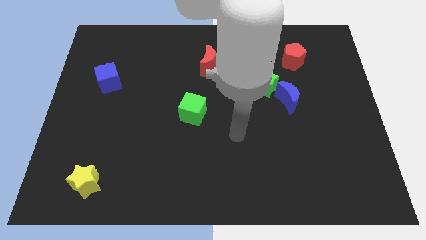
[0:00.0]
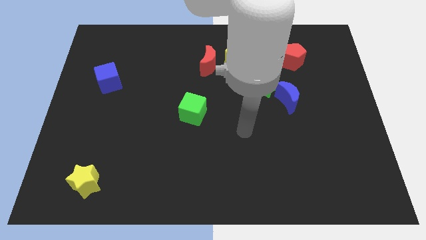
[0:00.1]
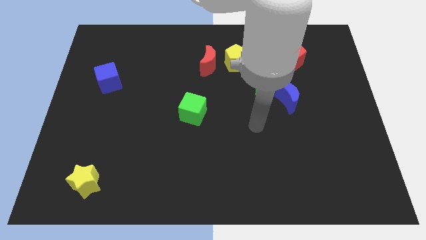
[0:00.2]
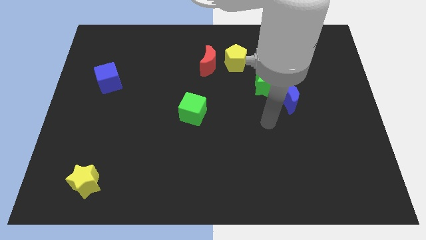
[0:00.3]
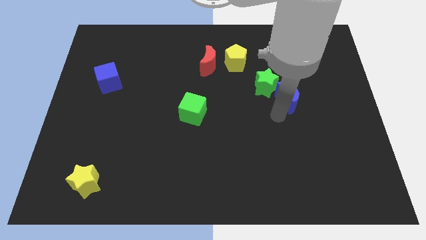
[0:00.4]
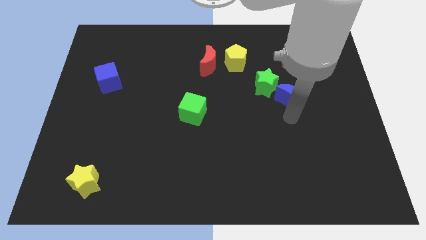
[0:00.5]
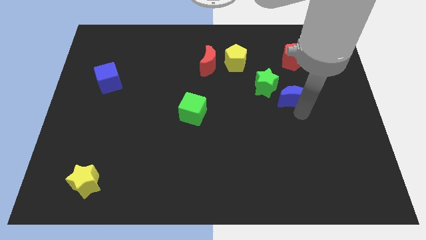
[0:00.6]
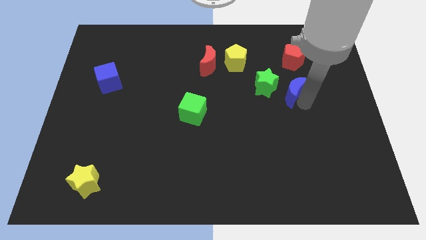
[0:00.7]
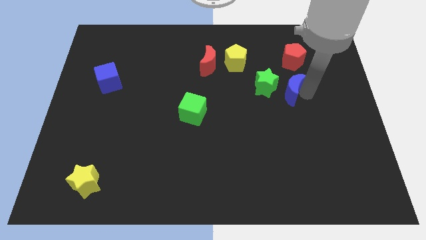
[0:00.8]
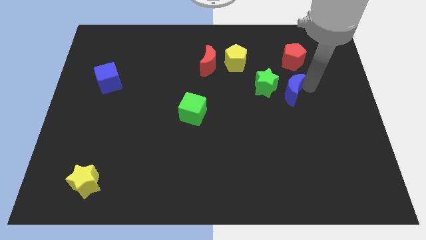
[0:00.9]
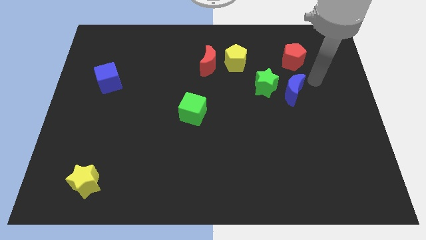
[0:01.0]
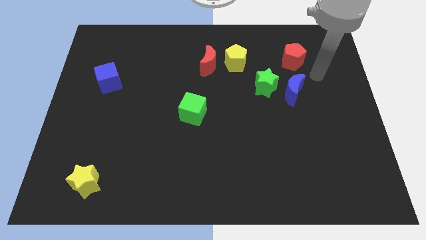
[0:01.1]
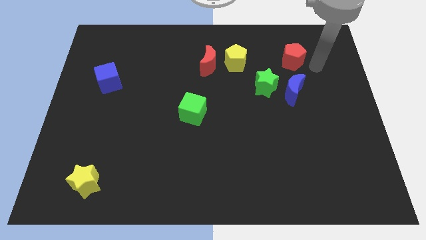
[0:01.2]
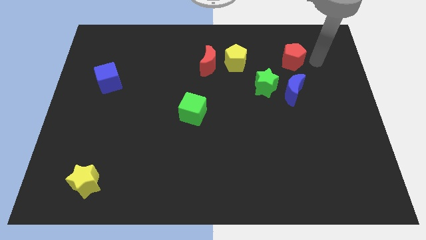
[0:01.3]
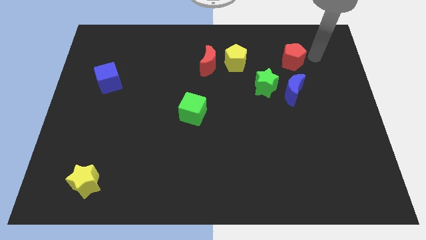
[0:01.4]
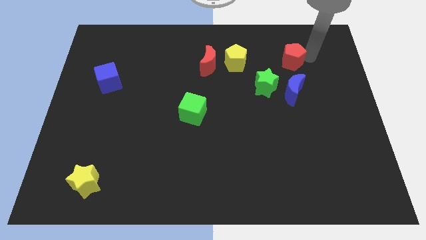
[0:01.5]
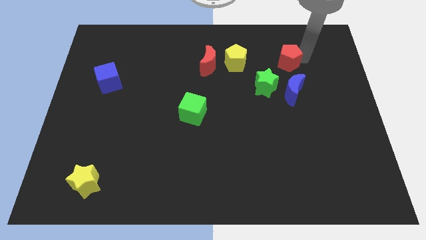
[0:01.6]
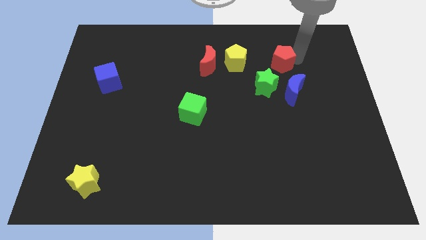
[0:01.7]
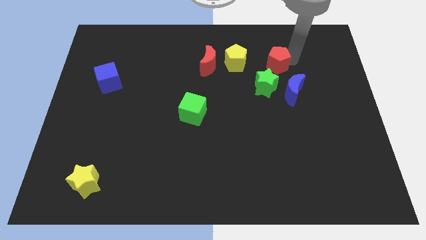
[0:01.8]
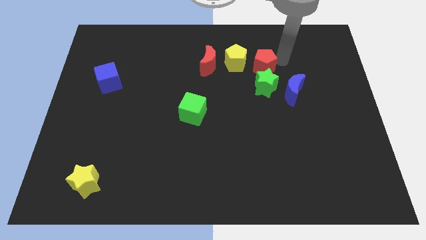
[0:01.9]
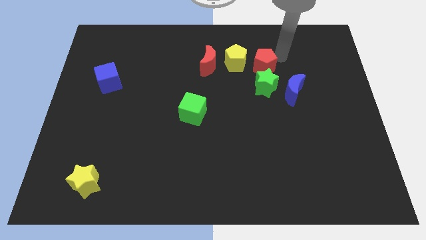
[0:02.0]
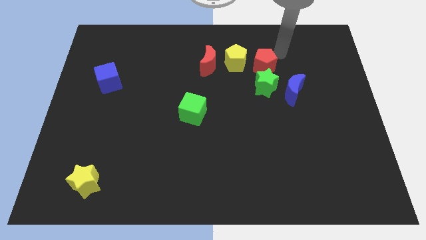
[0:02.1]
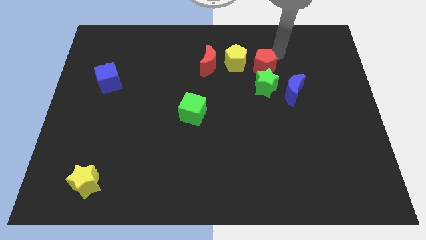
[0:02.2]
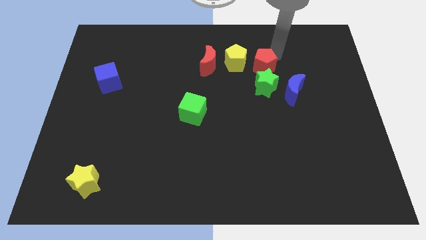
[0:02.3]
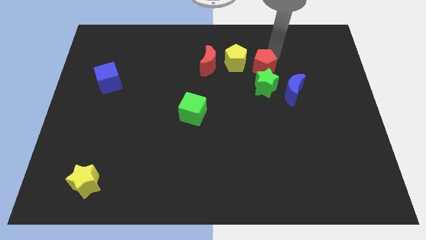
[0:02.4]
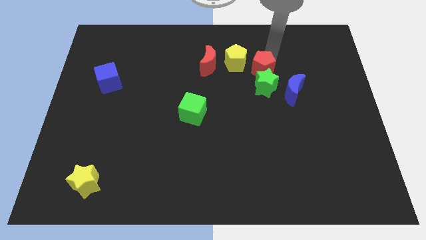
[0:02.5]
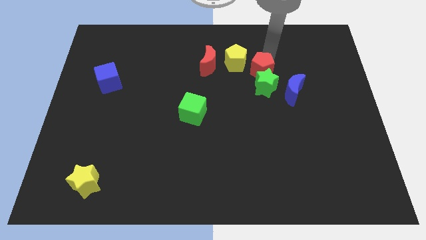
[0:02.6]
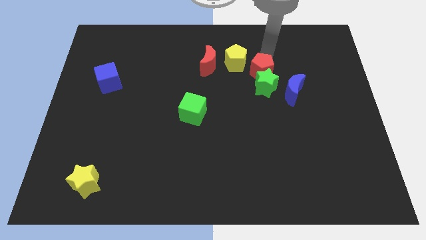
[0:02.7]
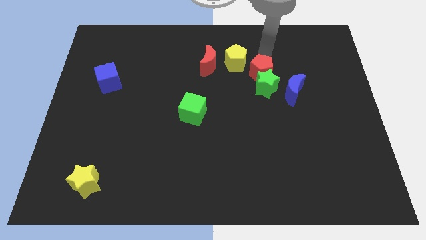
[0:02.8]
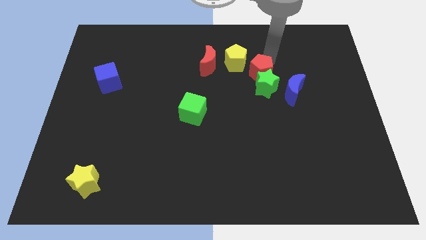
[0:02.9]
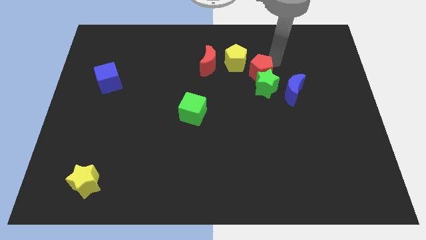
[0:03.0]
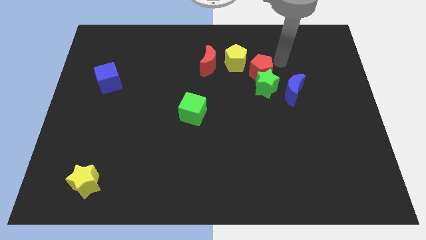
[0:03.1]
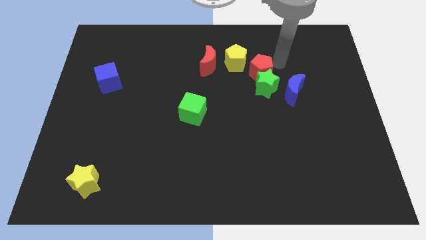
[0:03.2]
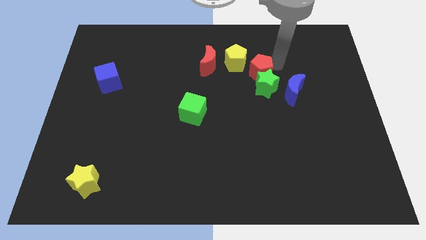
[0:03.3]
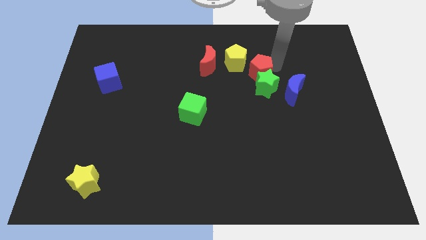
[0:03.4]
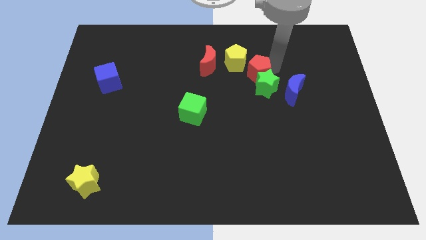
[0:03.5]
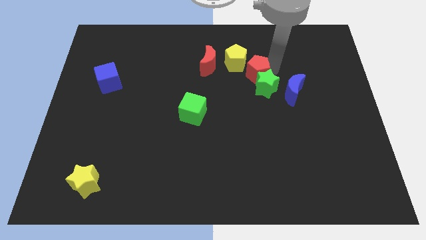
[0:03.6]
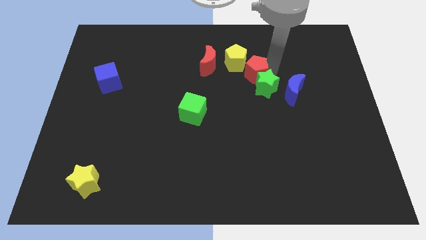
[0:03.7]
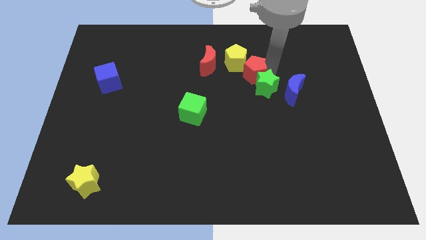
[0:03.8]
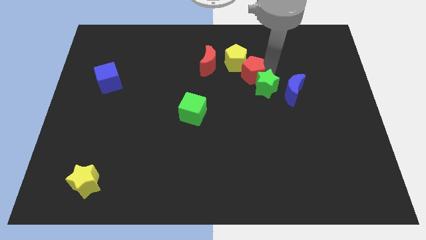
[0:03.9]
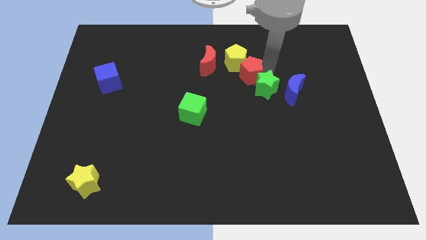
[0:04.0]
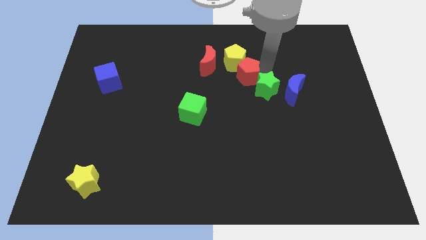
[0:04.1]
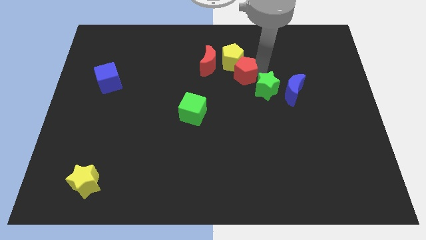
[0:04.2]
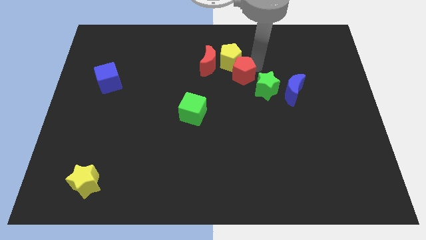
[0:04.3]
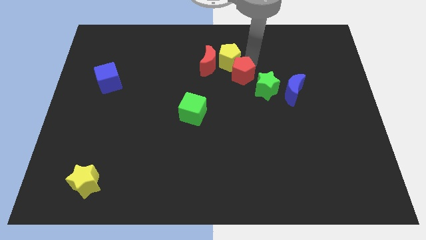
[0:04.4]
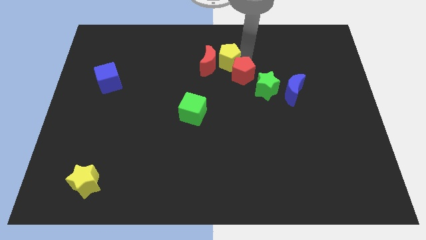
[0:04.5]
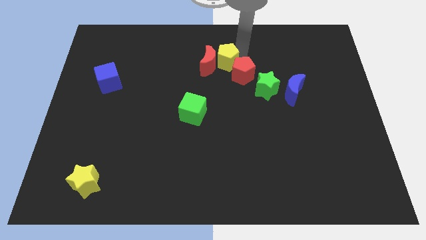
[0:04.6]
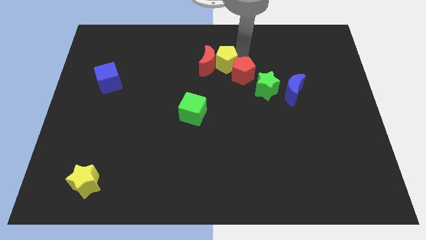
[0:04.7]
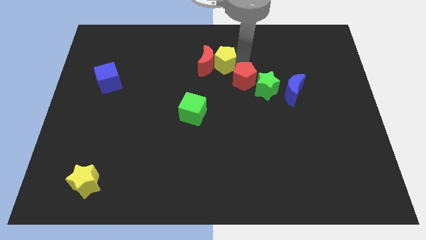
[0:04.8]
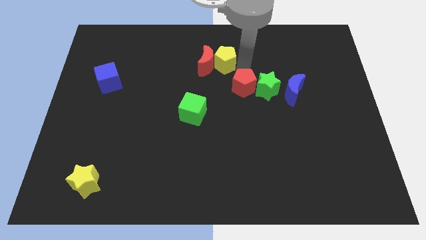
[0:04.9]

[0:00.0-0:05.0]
move the red pentagon to the bottom left side of the green star

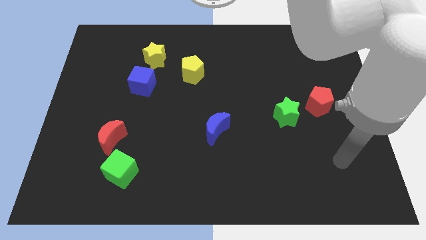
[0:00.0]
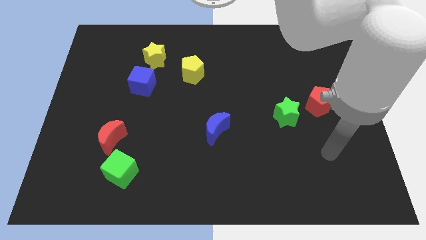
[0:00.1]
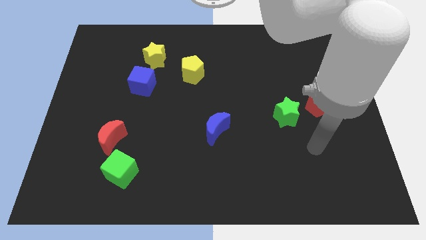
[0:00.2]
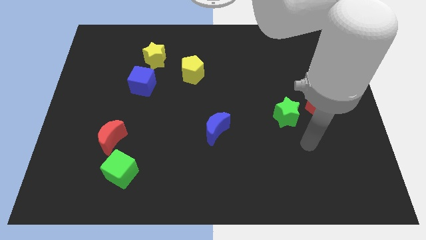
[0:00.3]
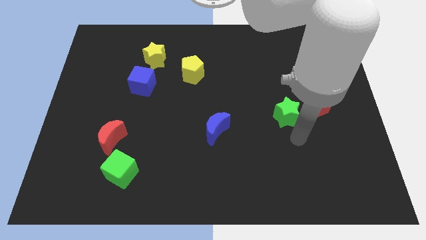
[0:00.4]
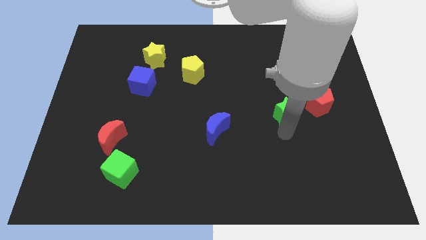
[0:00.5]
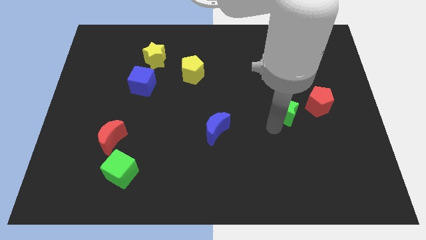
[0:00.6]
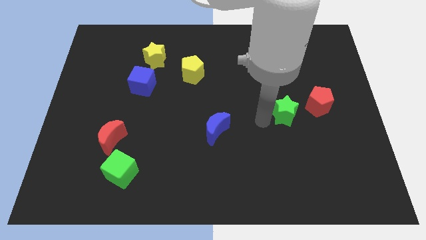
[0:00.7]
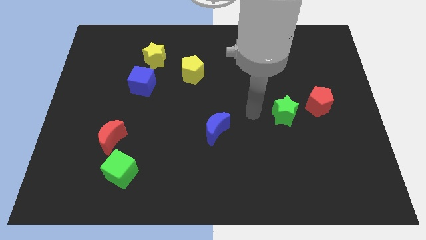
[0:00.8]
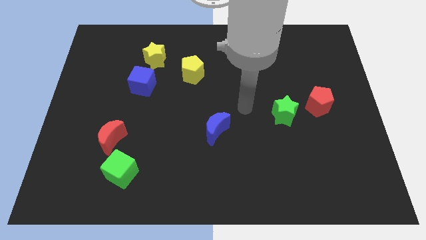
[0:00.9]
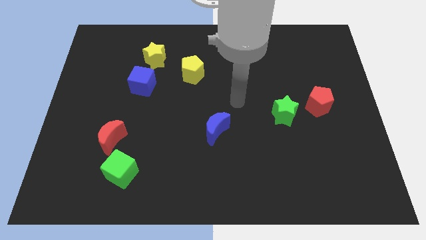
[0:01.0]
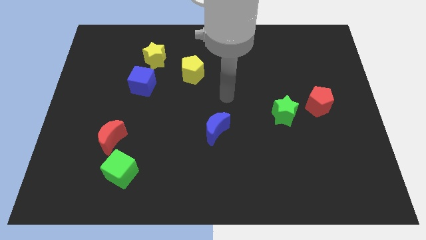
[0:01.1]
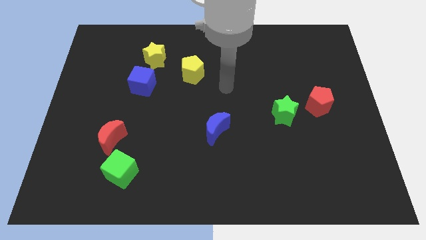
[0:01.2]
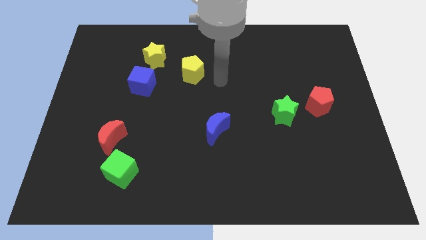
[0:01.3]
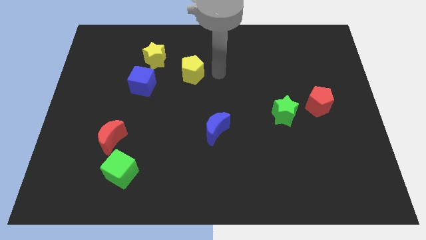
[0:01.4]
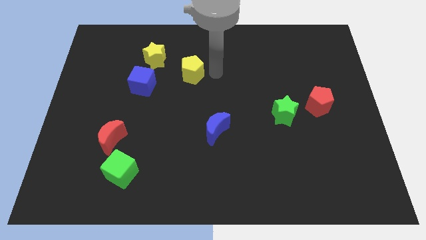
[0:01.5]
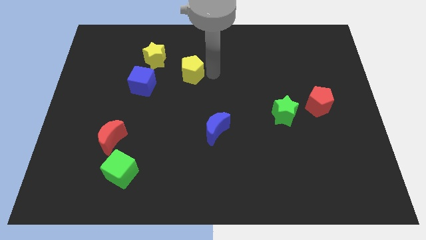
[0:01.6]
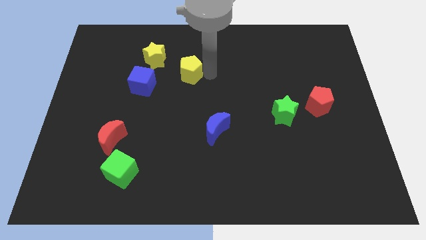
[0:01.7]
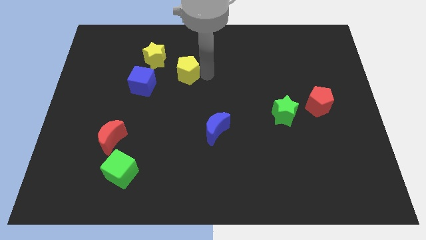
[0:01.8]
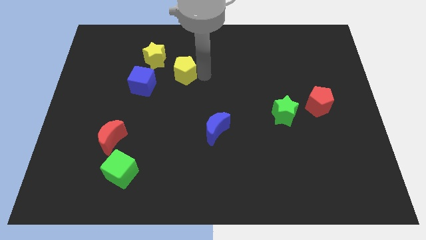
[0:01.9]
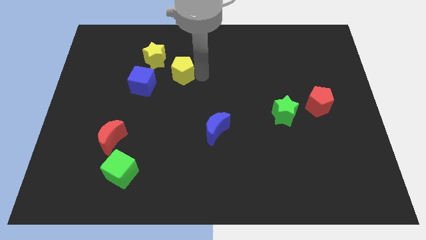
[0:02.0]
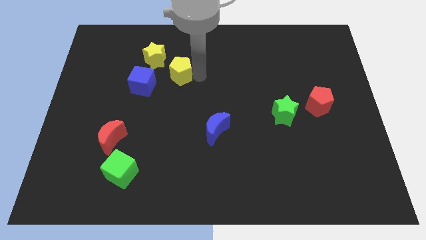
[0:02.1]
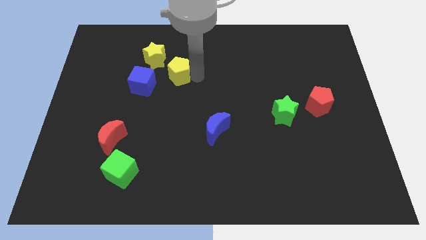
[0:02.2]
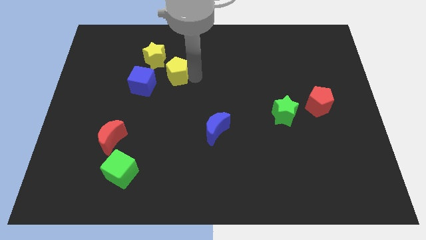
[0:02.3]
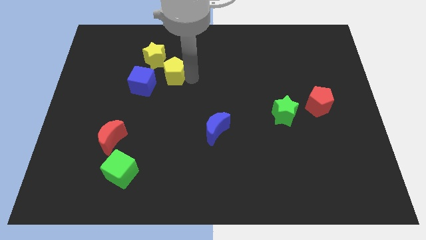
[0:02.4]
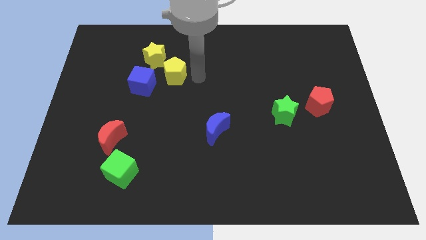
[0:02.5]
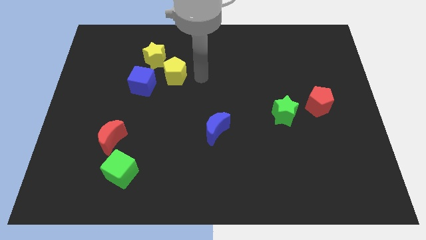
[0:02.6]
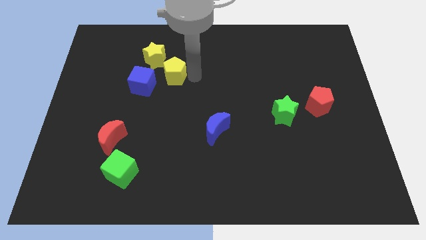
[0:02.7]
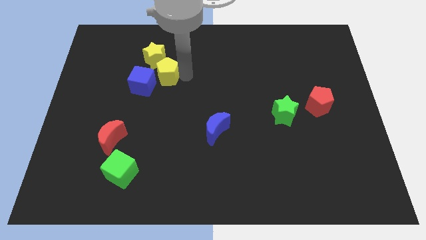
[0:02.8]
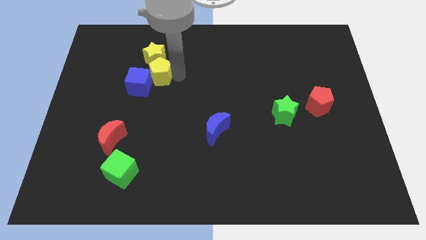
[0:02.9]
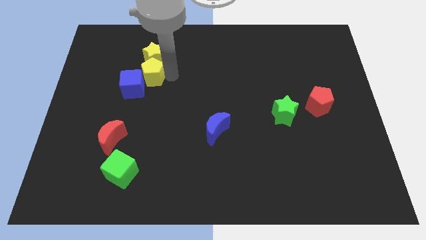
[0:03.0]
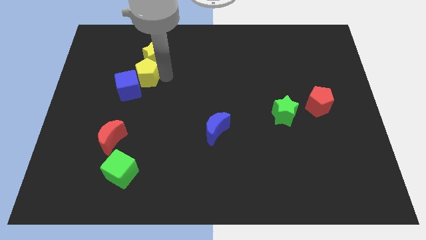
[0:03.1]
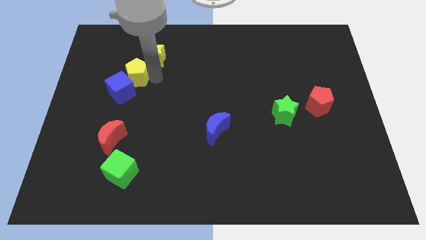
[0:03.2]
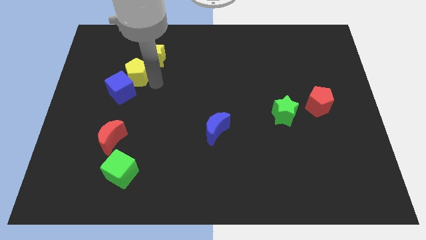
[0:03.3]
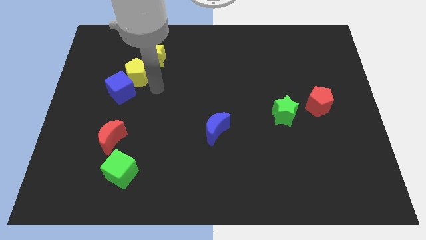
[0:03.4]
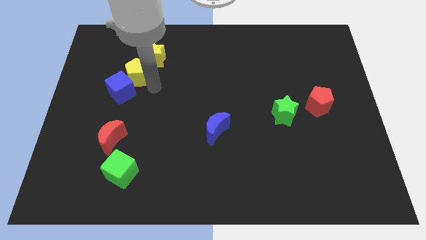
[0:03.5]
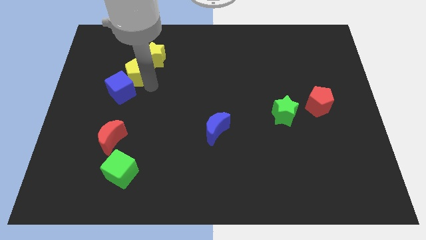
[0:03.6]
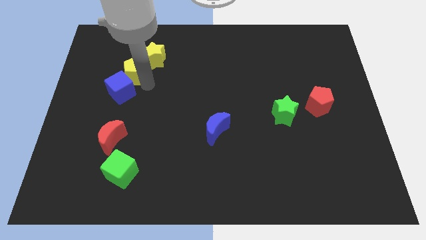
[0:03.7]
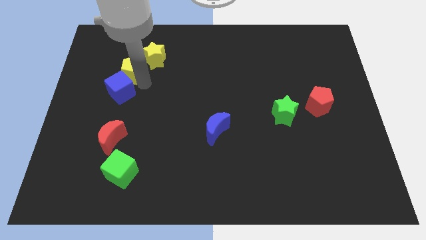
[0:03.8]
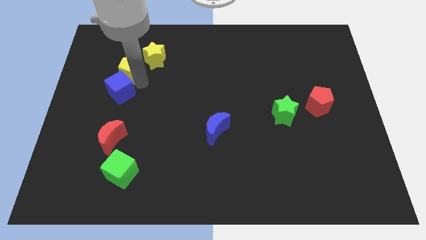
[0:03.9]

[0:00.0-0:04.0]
push the yellow pentagon to the left of the yellow star
